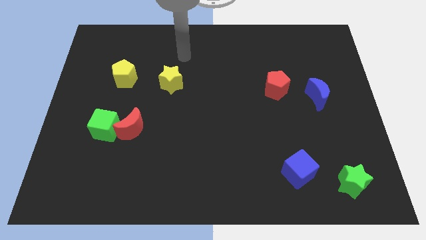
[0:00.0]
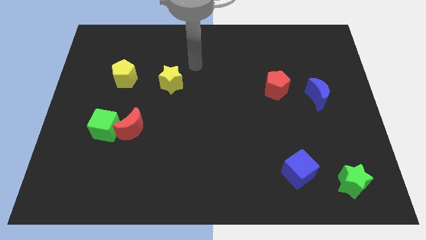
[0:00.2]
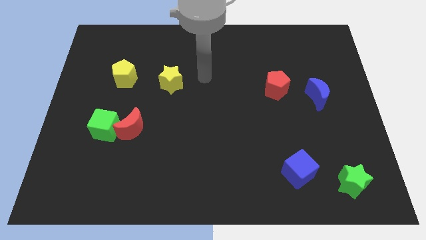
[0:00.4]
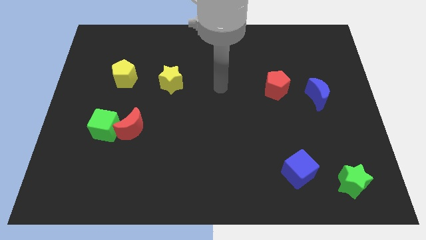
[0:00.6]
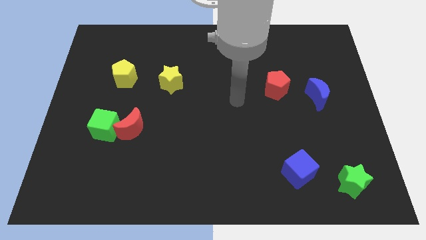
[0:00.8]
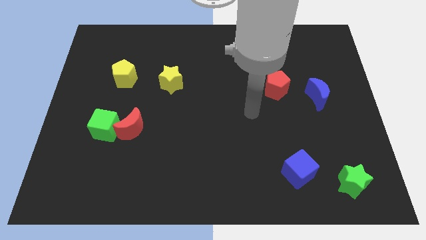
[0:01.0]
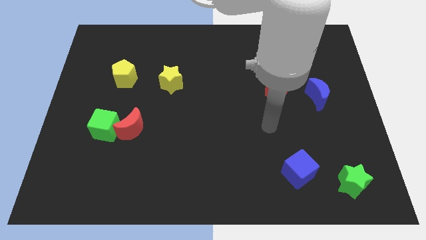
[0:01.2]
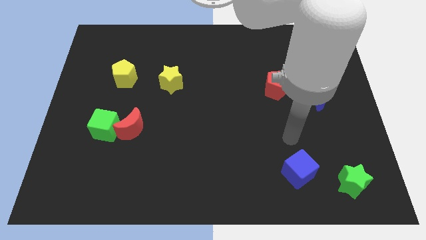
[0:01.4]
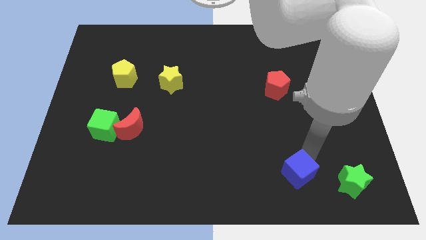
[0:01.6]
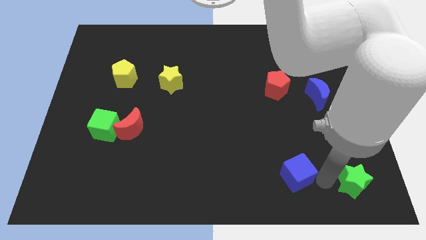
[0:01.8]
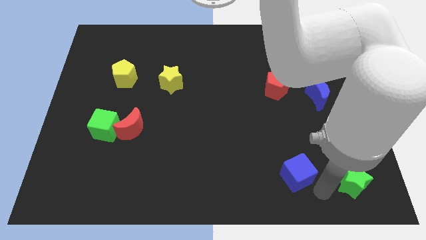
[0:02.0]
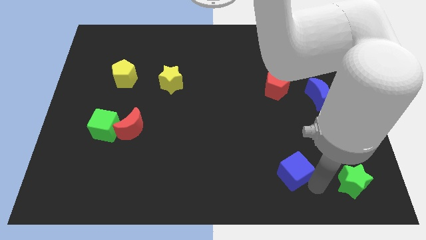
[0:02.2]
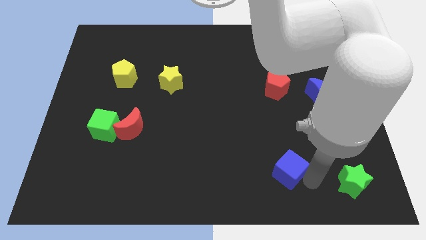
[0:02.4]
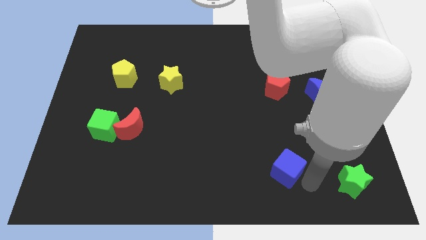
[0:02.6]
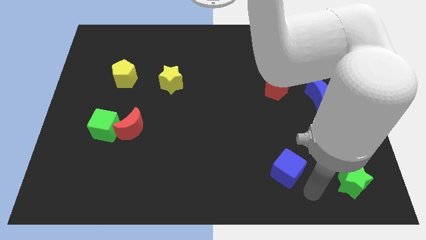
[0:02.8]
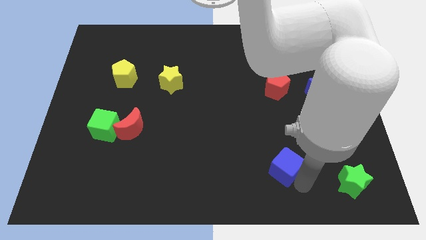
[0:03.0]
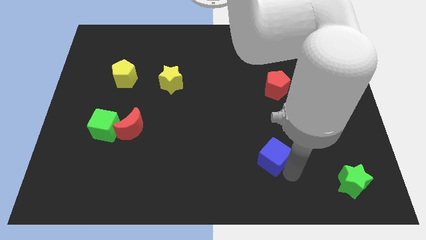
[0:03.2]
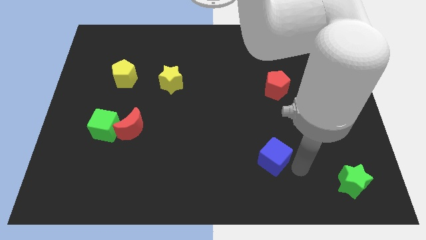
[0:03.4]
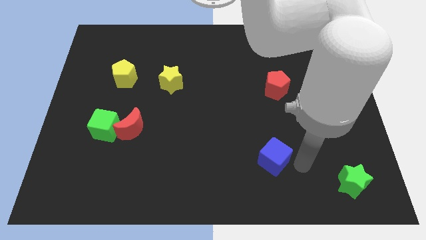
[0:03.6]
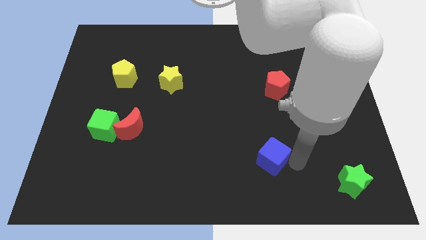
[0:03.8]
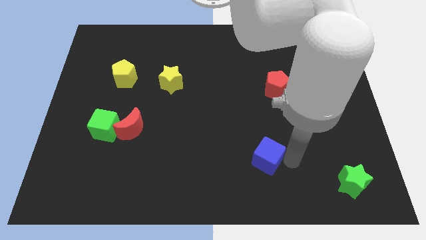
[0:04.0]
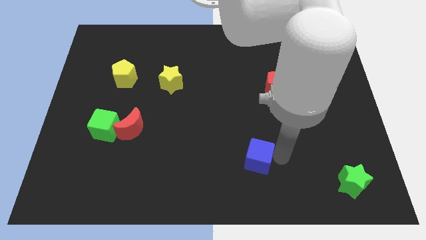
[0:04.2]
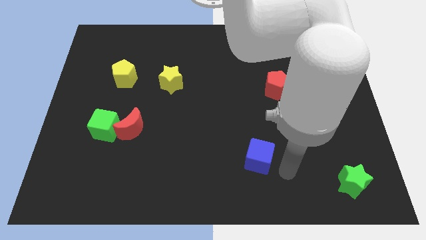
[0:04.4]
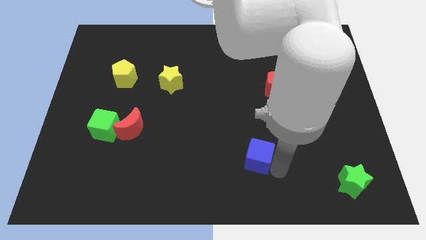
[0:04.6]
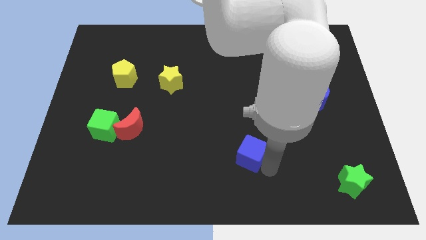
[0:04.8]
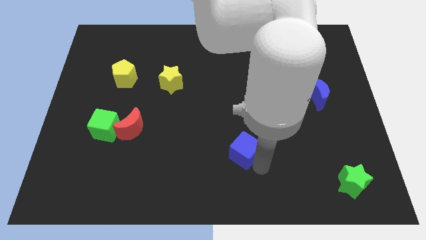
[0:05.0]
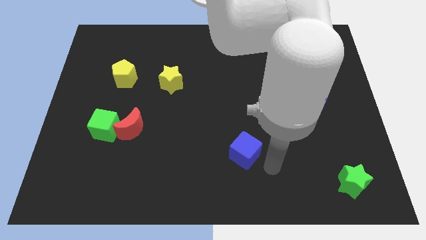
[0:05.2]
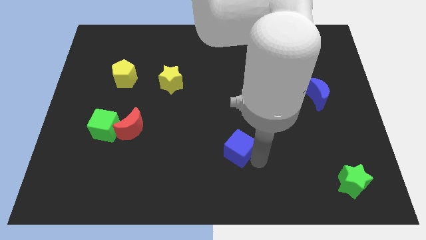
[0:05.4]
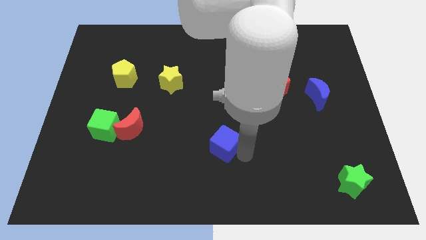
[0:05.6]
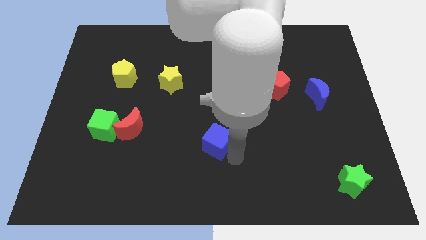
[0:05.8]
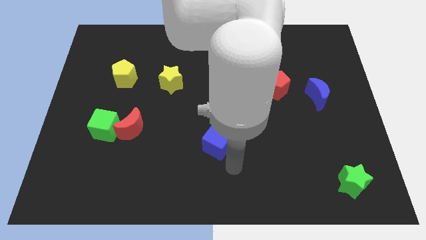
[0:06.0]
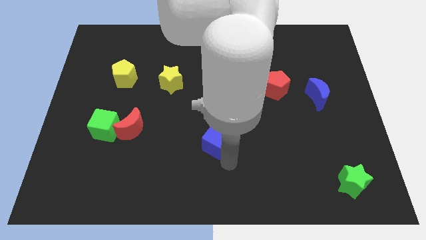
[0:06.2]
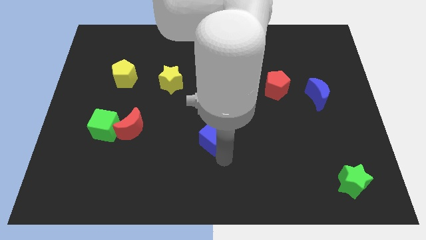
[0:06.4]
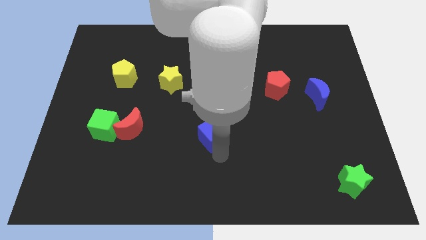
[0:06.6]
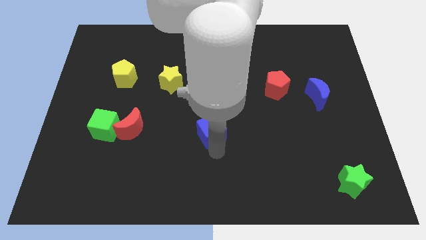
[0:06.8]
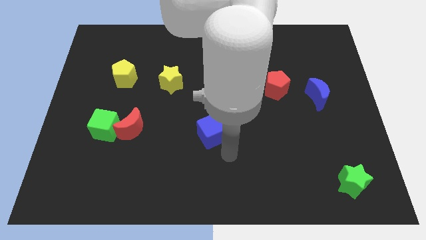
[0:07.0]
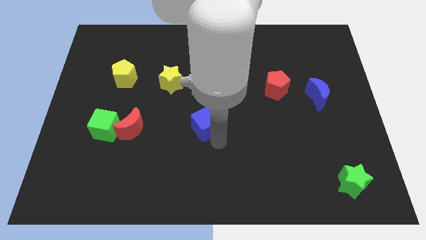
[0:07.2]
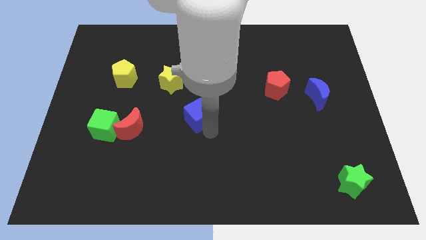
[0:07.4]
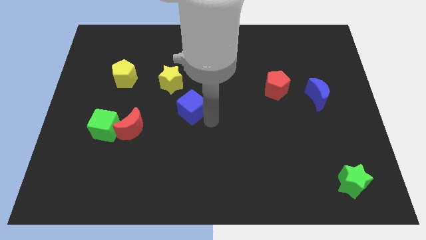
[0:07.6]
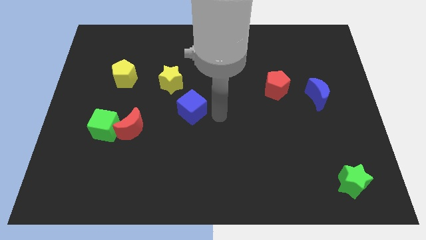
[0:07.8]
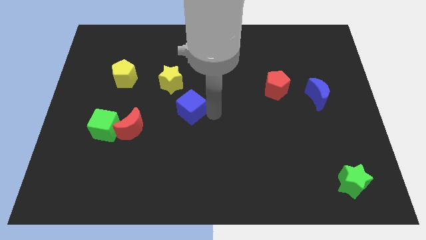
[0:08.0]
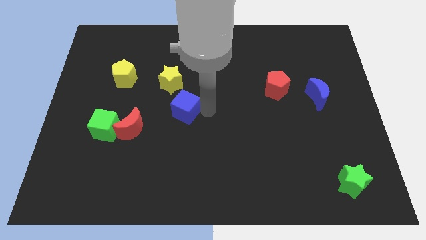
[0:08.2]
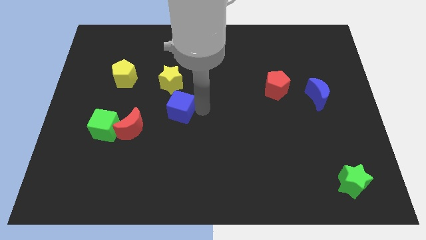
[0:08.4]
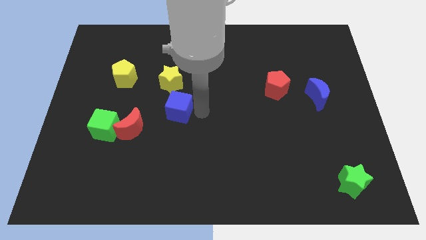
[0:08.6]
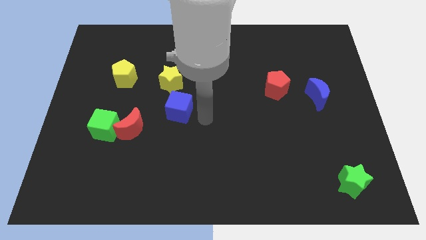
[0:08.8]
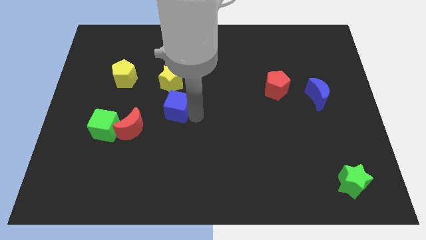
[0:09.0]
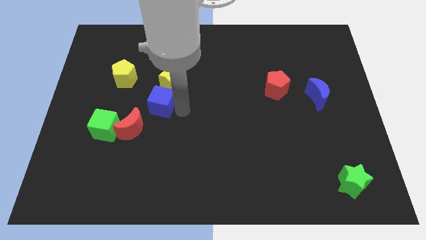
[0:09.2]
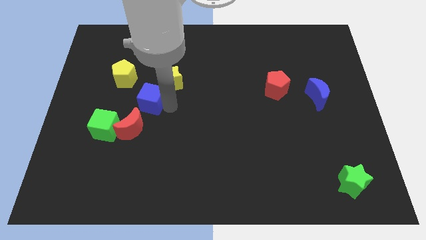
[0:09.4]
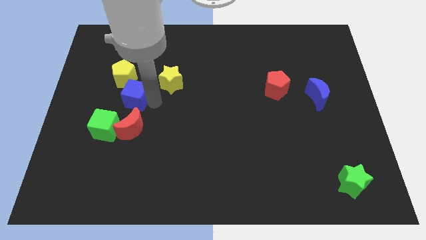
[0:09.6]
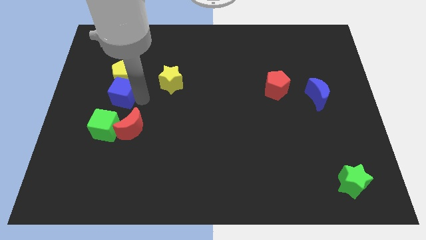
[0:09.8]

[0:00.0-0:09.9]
put the blue cube to the bottom left of the yellow pentagon

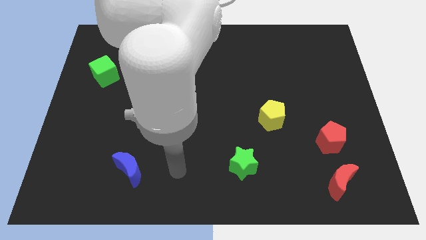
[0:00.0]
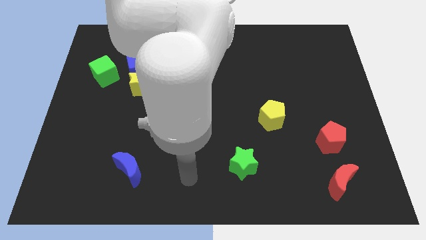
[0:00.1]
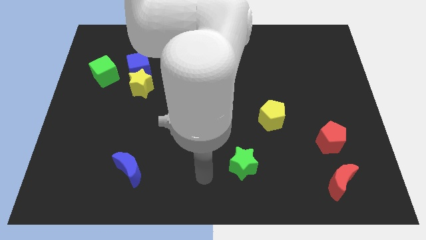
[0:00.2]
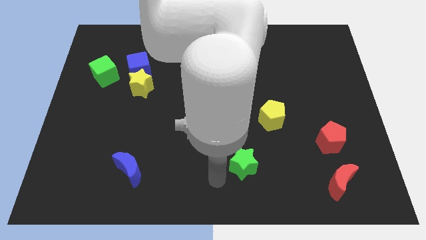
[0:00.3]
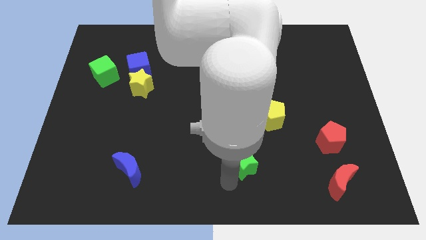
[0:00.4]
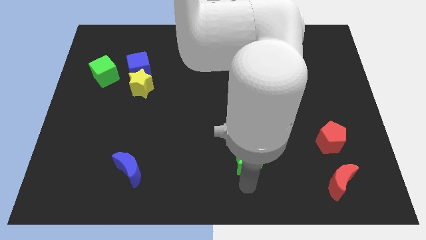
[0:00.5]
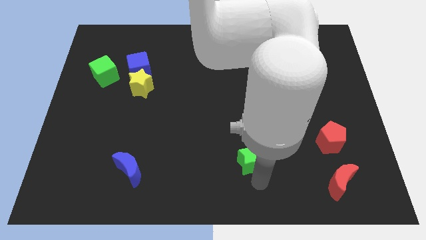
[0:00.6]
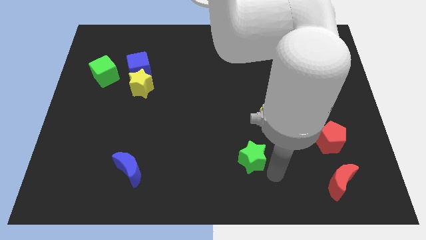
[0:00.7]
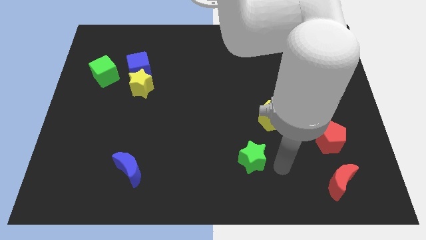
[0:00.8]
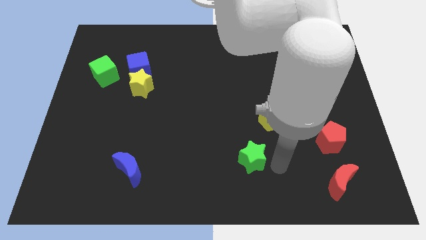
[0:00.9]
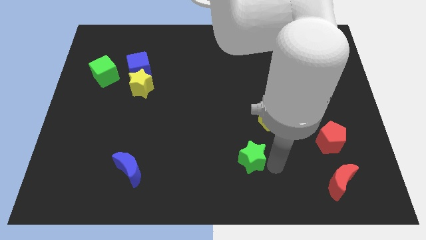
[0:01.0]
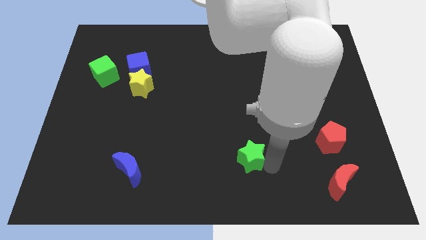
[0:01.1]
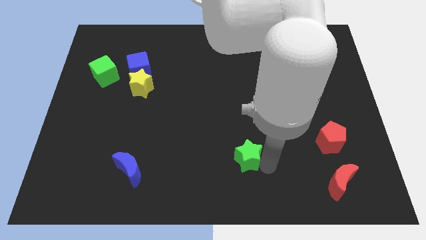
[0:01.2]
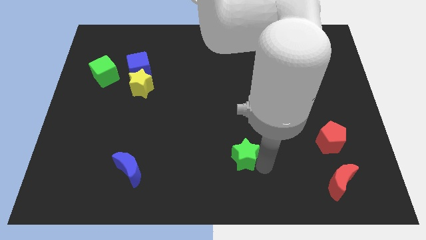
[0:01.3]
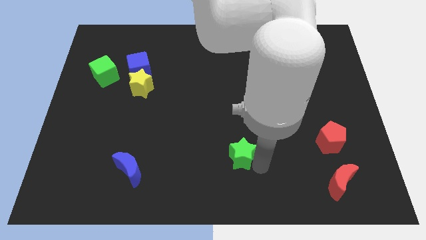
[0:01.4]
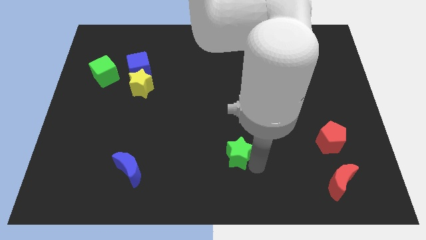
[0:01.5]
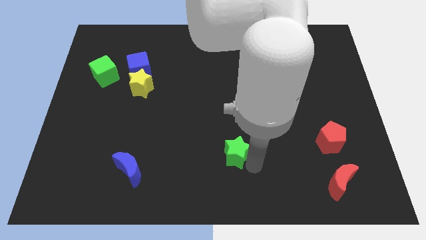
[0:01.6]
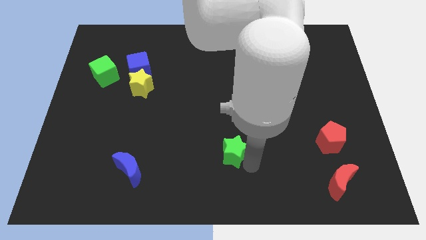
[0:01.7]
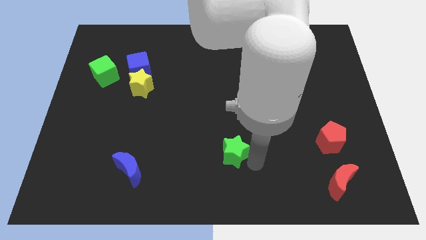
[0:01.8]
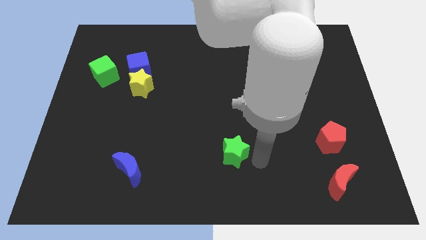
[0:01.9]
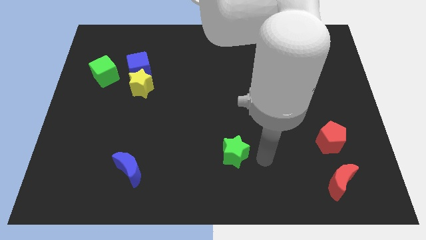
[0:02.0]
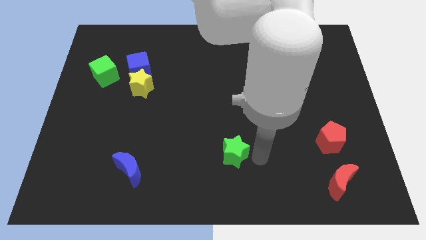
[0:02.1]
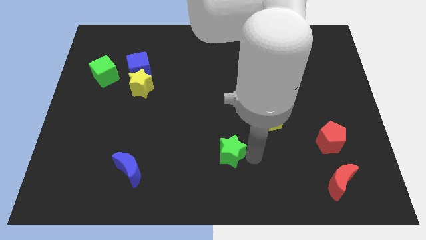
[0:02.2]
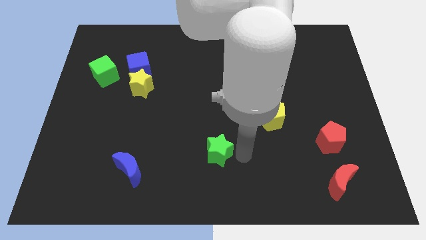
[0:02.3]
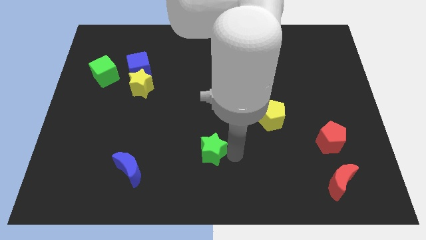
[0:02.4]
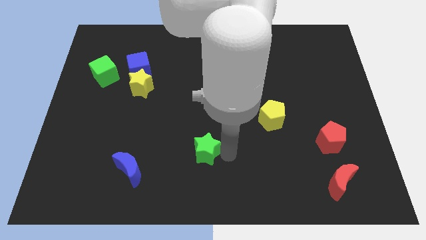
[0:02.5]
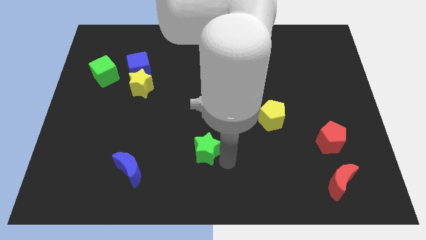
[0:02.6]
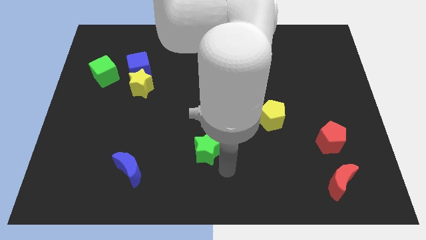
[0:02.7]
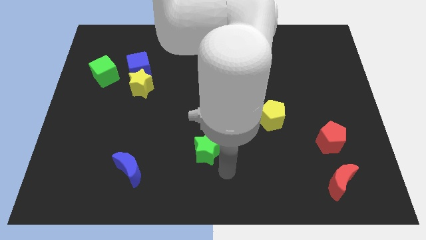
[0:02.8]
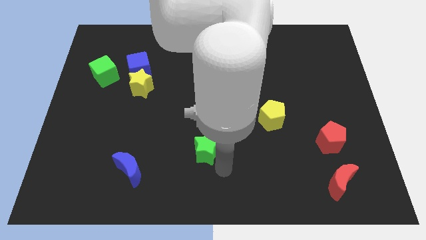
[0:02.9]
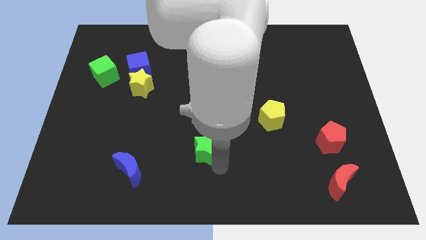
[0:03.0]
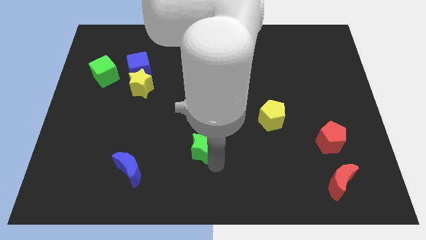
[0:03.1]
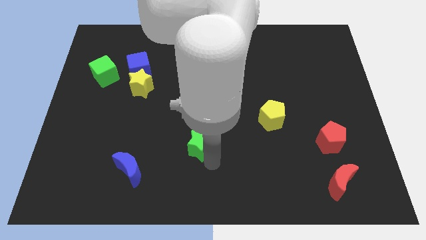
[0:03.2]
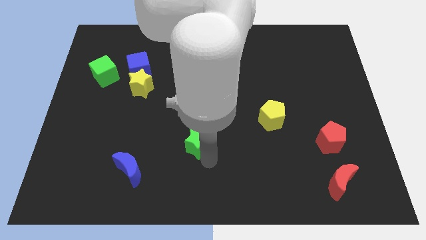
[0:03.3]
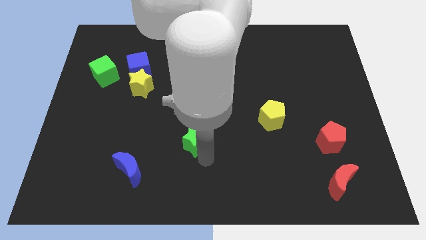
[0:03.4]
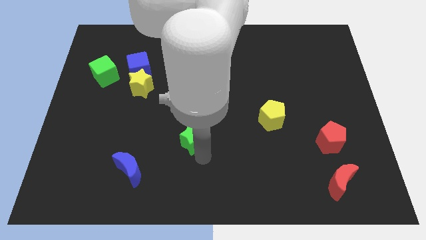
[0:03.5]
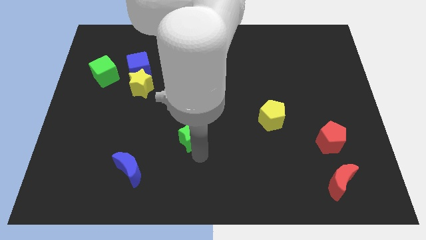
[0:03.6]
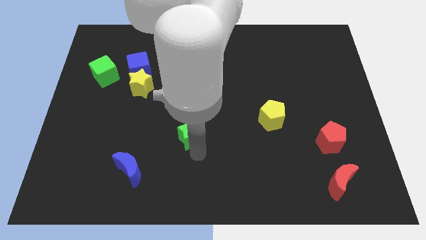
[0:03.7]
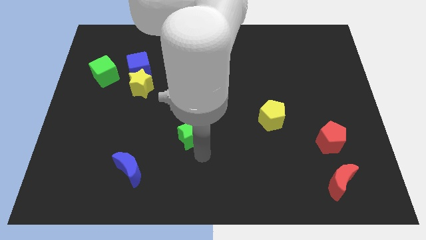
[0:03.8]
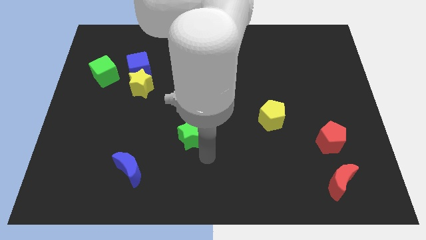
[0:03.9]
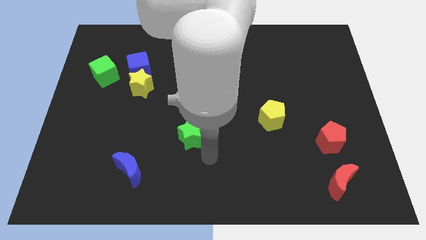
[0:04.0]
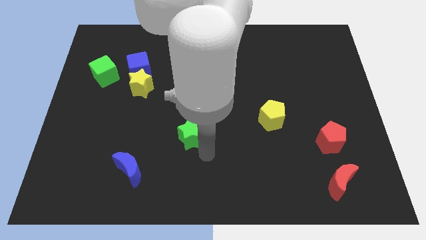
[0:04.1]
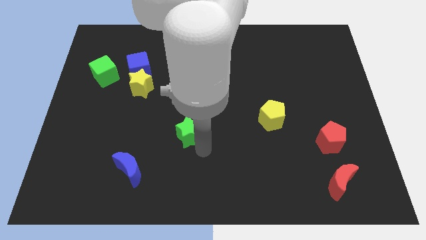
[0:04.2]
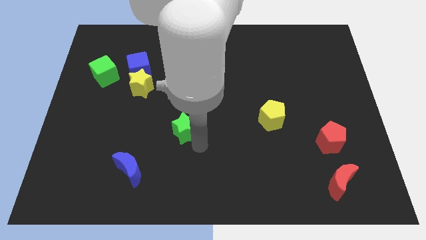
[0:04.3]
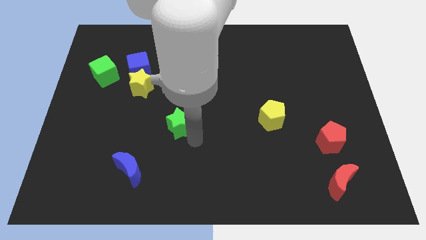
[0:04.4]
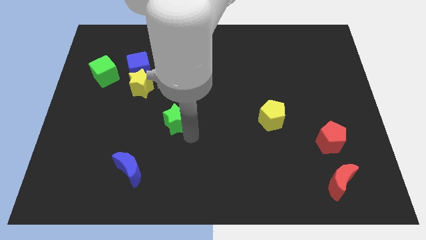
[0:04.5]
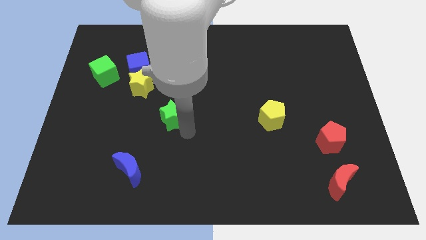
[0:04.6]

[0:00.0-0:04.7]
move the green star to the bottom right of the yellow star
